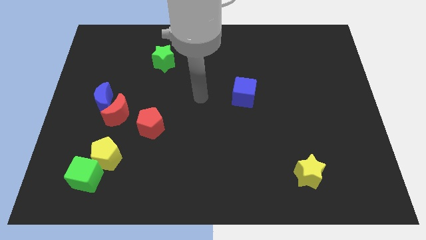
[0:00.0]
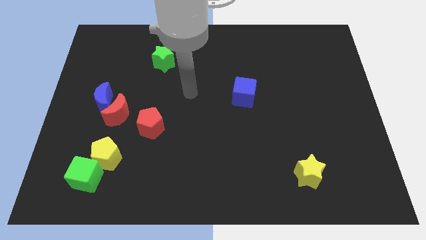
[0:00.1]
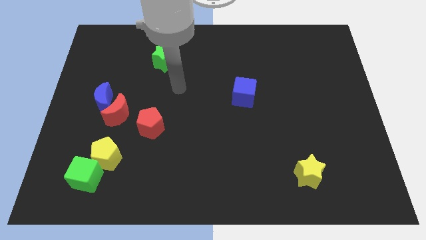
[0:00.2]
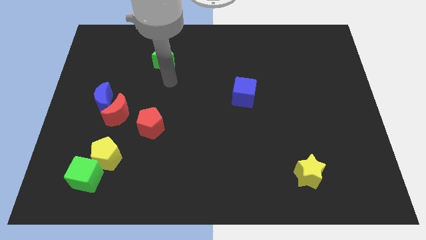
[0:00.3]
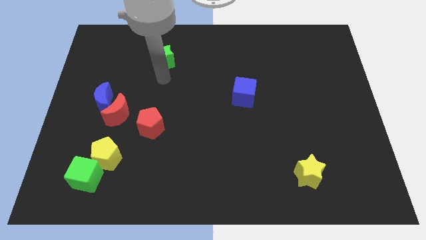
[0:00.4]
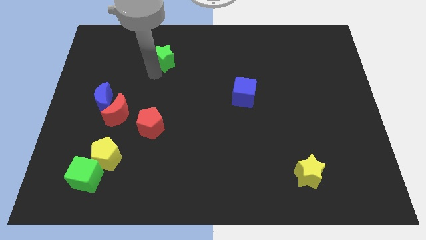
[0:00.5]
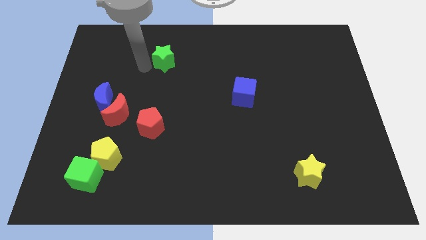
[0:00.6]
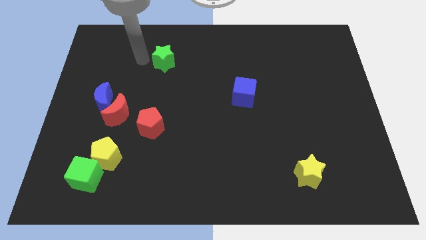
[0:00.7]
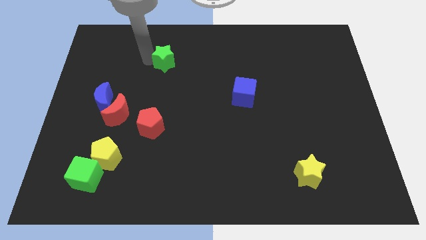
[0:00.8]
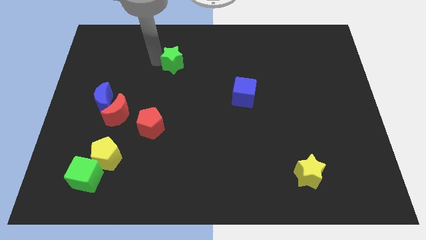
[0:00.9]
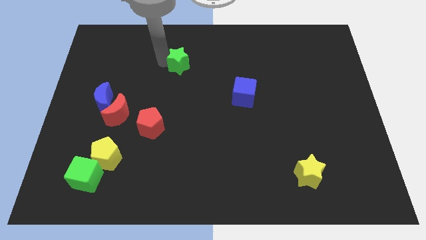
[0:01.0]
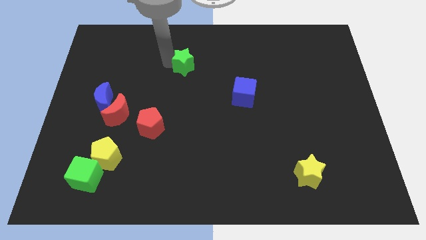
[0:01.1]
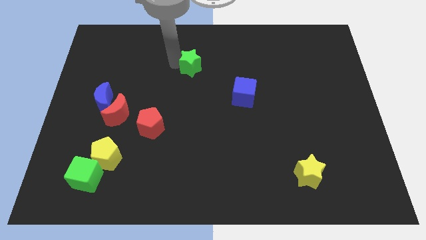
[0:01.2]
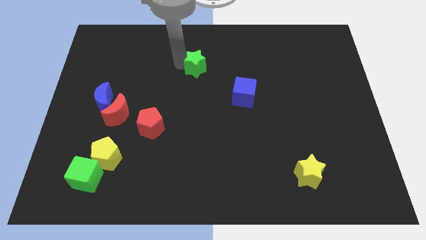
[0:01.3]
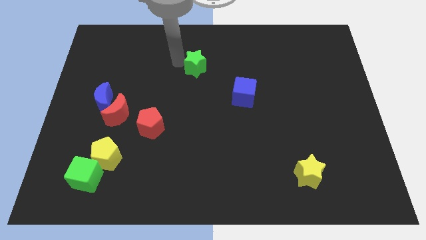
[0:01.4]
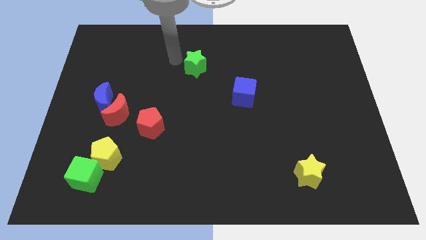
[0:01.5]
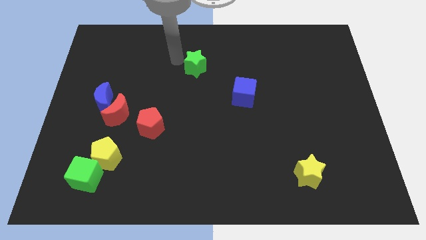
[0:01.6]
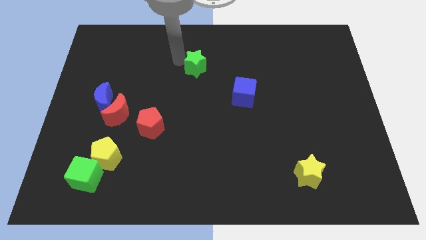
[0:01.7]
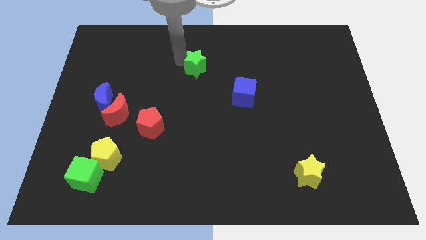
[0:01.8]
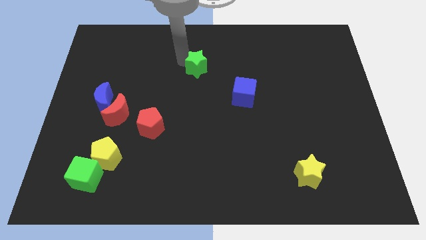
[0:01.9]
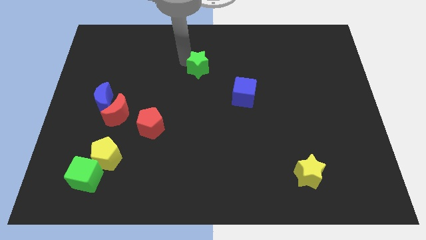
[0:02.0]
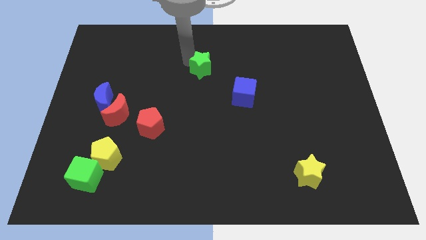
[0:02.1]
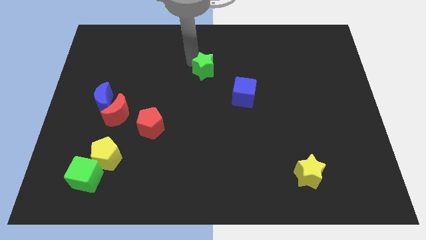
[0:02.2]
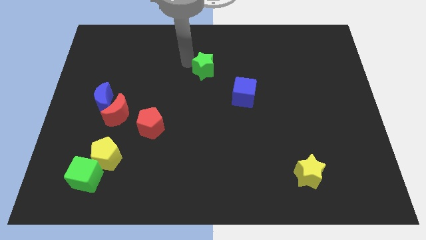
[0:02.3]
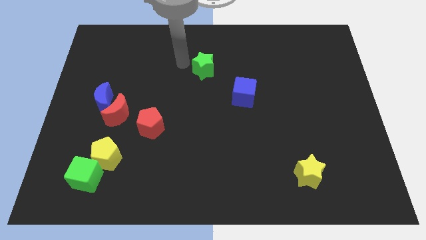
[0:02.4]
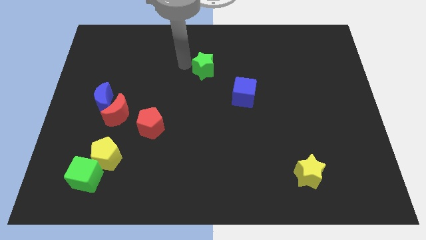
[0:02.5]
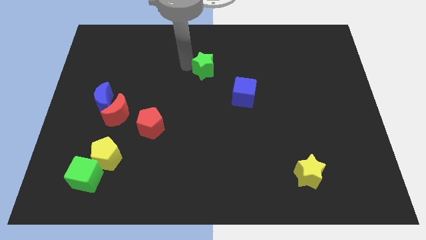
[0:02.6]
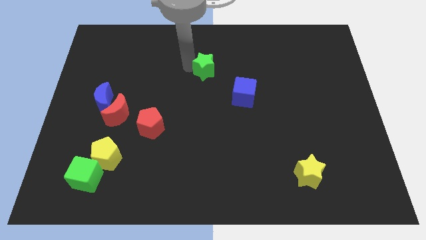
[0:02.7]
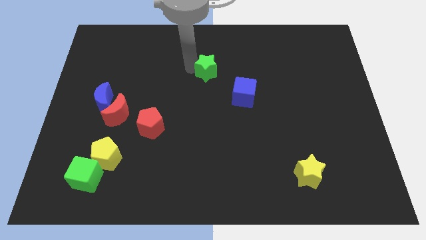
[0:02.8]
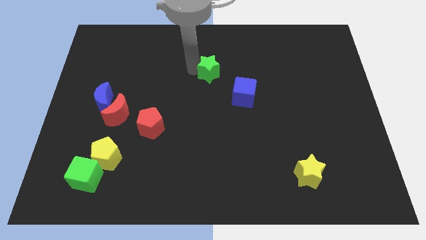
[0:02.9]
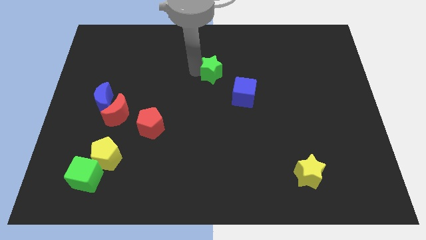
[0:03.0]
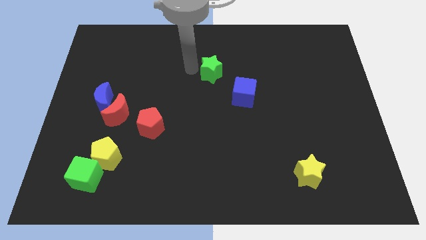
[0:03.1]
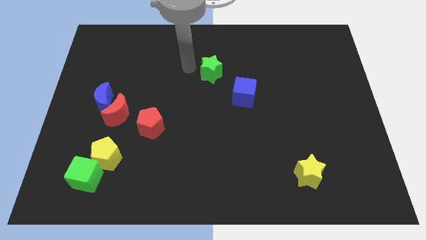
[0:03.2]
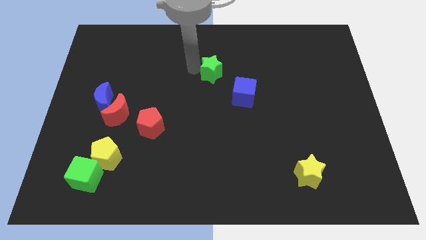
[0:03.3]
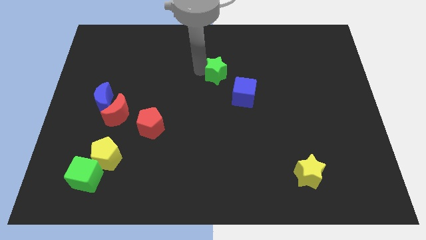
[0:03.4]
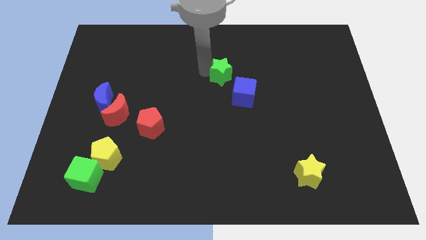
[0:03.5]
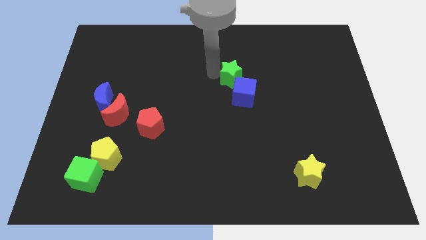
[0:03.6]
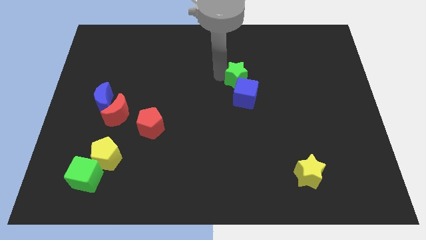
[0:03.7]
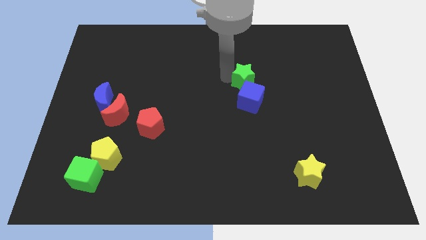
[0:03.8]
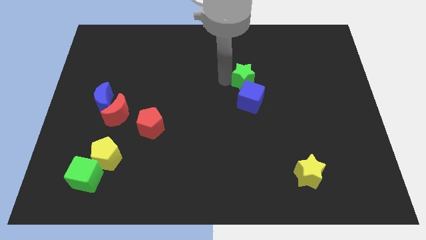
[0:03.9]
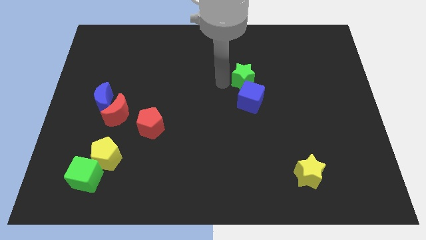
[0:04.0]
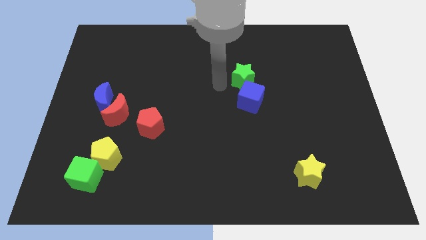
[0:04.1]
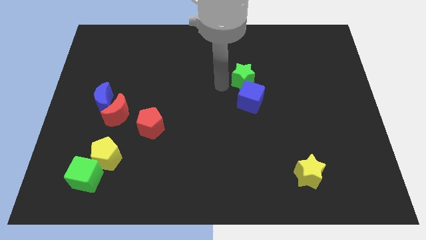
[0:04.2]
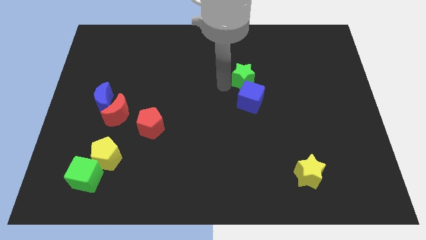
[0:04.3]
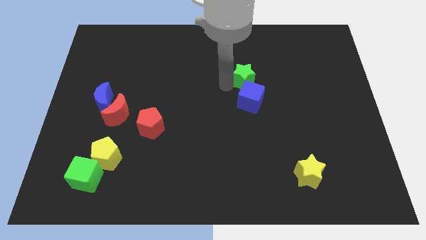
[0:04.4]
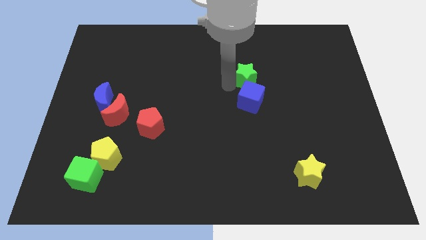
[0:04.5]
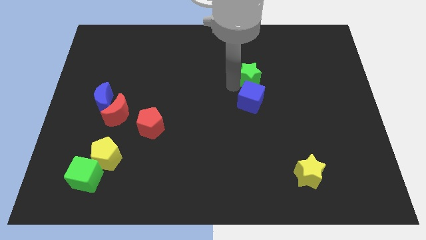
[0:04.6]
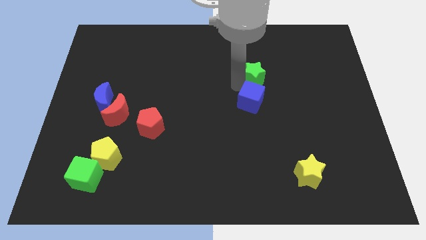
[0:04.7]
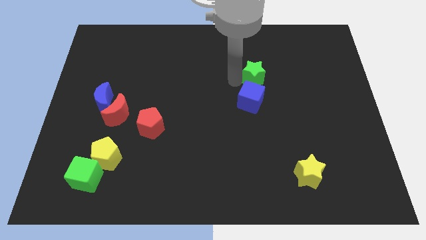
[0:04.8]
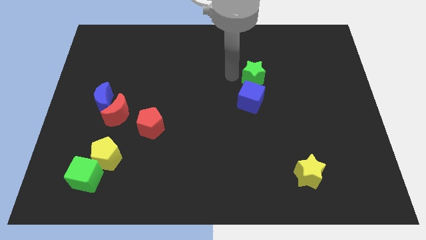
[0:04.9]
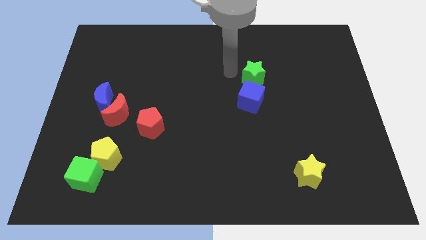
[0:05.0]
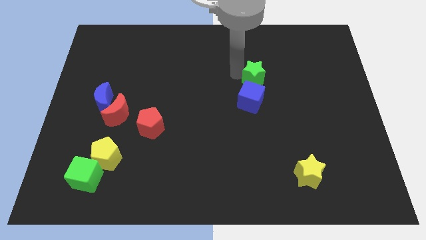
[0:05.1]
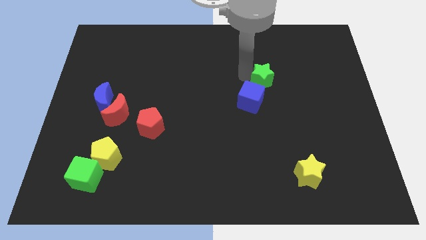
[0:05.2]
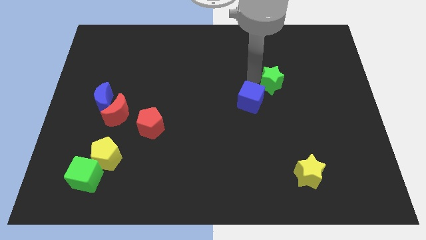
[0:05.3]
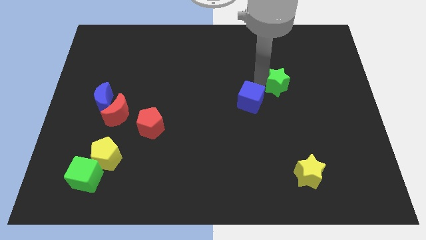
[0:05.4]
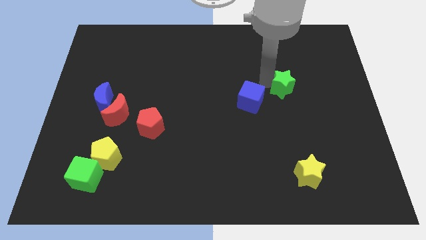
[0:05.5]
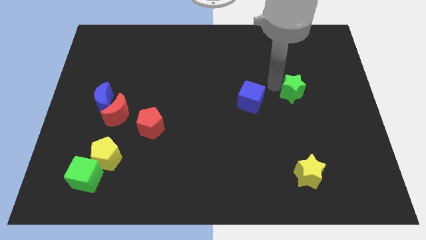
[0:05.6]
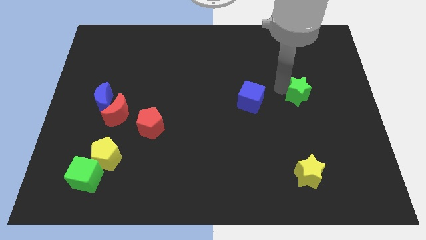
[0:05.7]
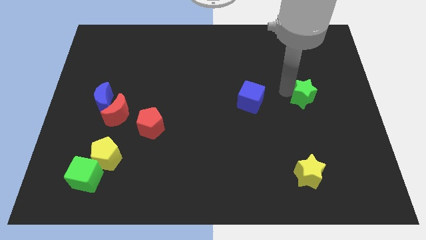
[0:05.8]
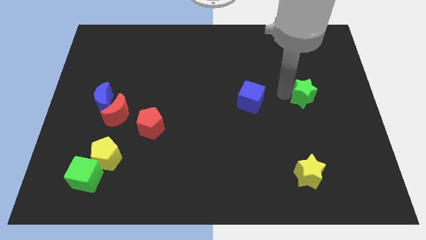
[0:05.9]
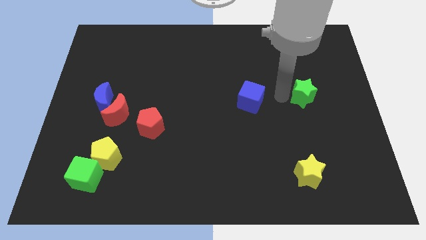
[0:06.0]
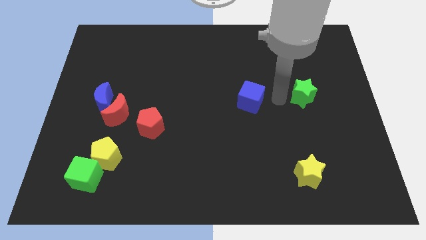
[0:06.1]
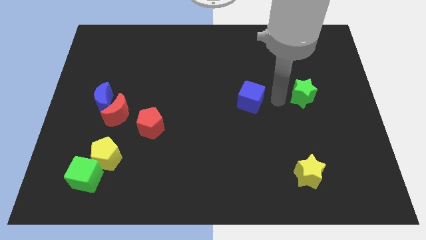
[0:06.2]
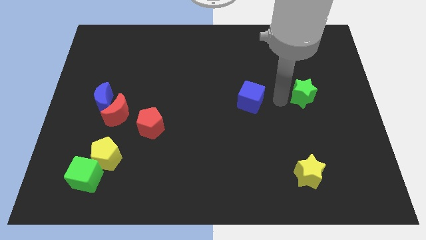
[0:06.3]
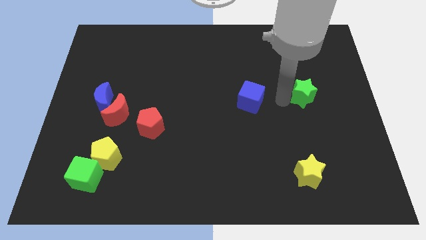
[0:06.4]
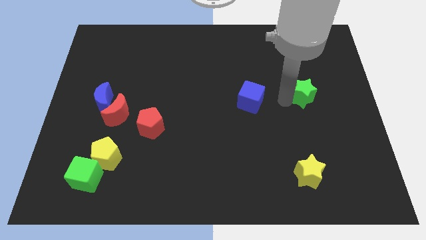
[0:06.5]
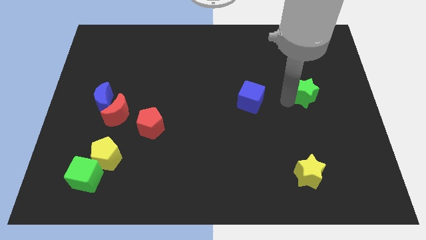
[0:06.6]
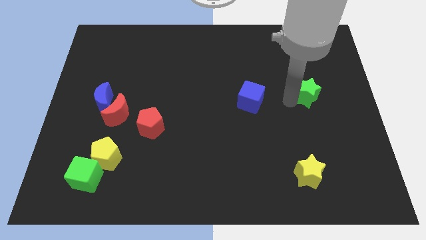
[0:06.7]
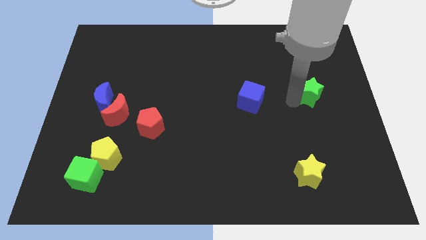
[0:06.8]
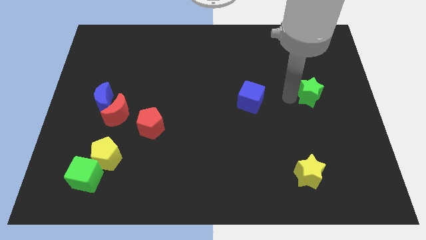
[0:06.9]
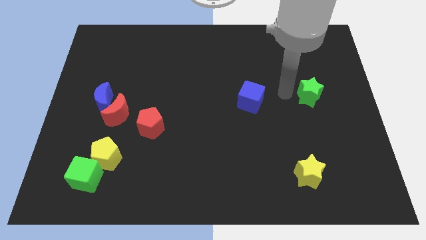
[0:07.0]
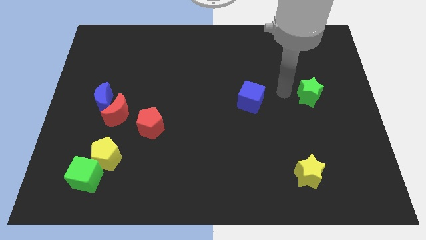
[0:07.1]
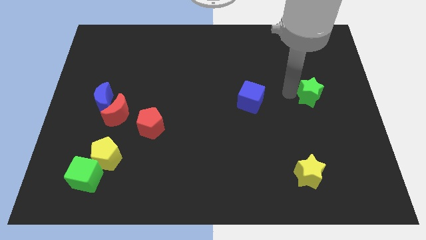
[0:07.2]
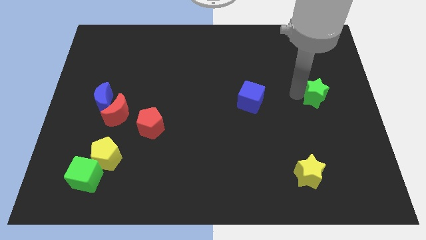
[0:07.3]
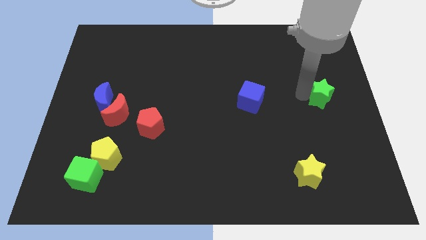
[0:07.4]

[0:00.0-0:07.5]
put the green star to the center right
